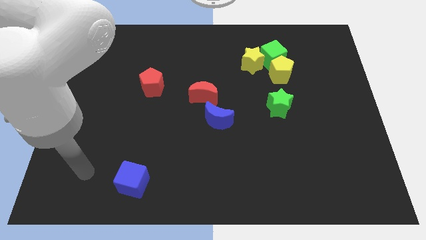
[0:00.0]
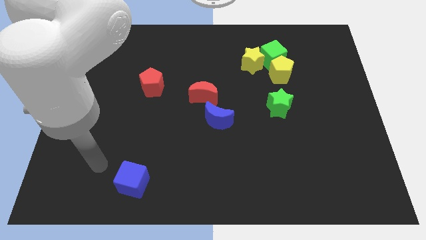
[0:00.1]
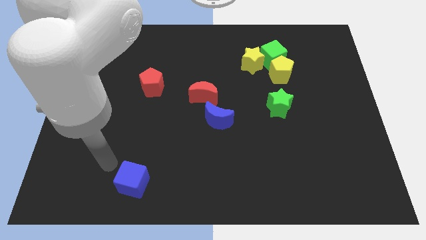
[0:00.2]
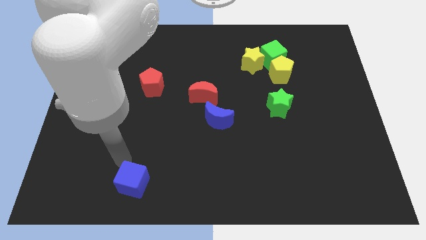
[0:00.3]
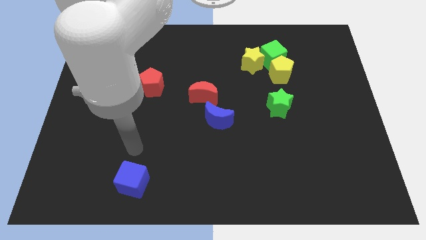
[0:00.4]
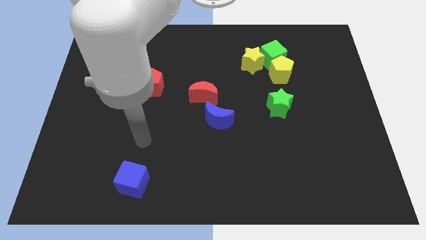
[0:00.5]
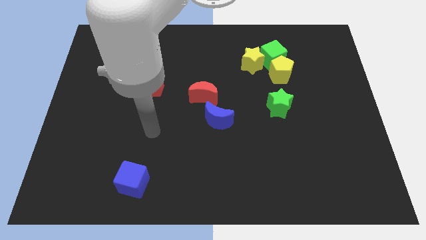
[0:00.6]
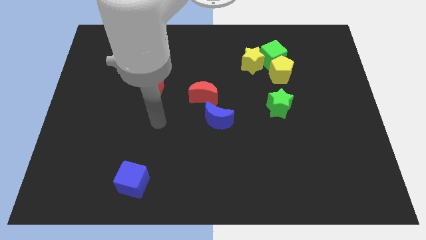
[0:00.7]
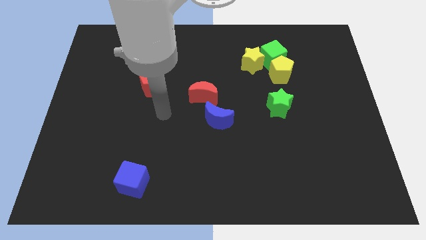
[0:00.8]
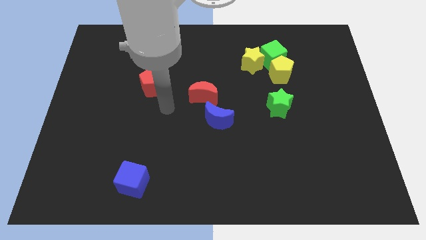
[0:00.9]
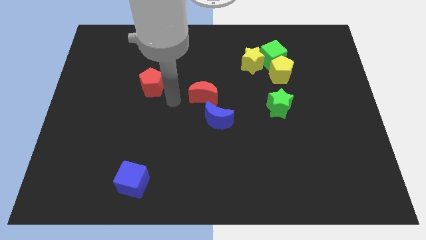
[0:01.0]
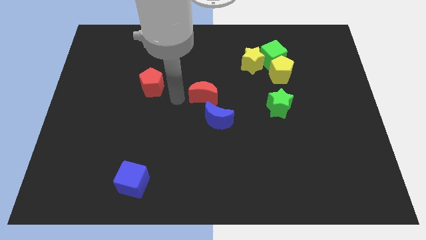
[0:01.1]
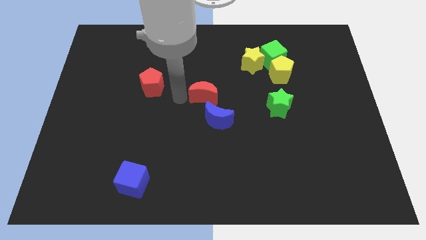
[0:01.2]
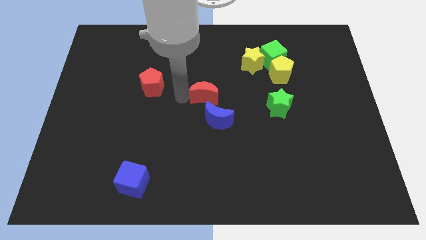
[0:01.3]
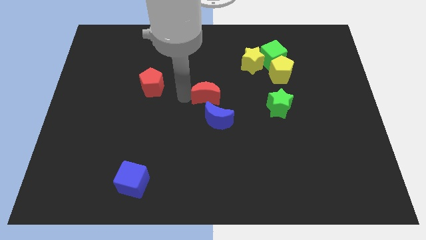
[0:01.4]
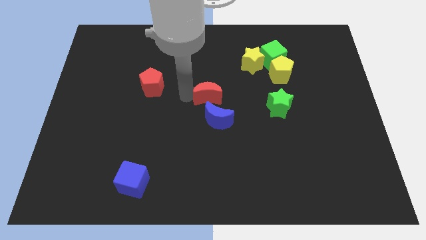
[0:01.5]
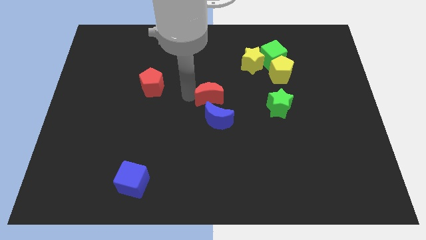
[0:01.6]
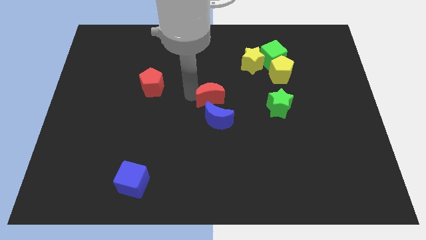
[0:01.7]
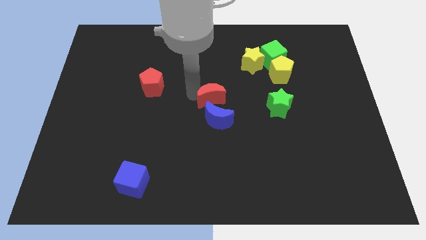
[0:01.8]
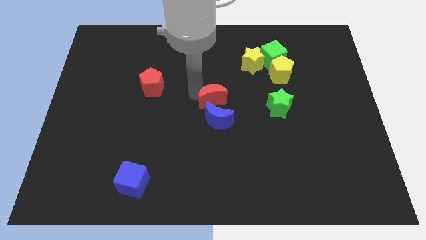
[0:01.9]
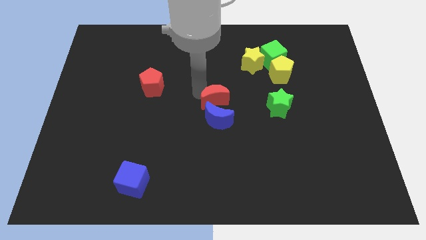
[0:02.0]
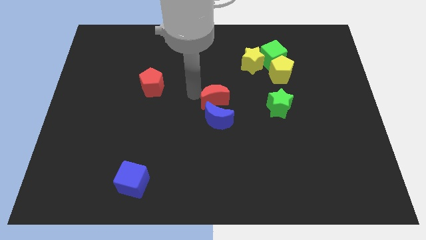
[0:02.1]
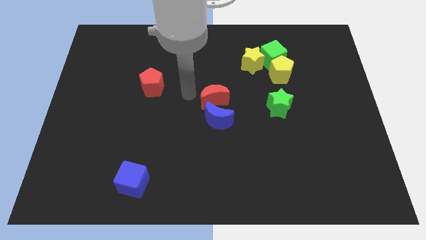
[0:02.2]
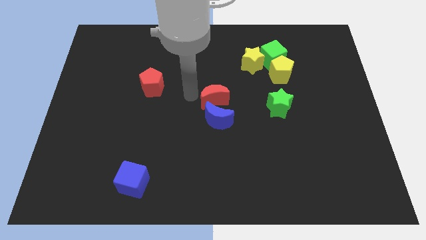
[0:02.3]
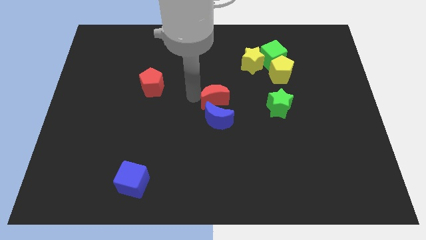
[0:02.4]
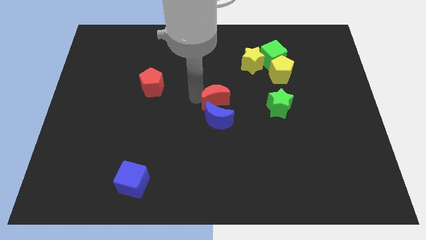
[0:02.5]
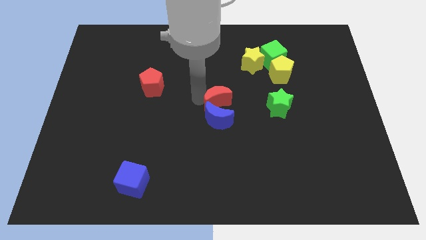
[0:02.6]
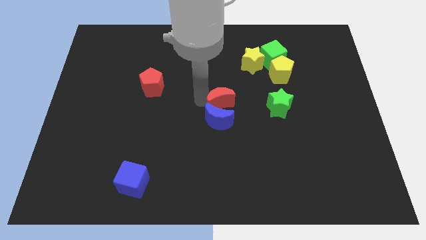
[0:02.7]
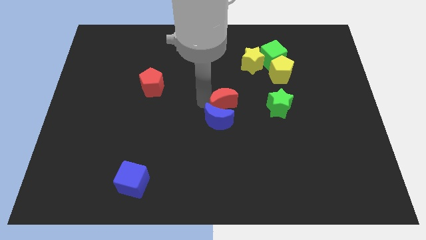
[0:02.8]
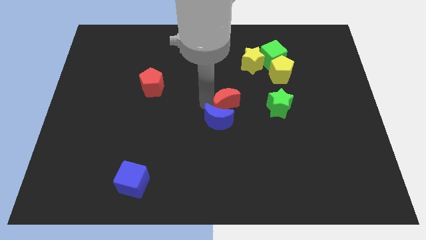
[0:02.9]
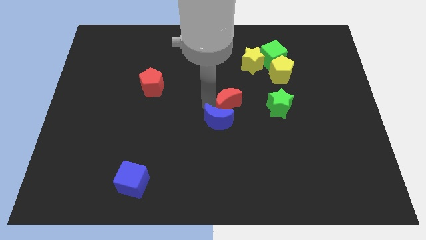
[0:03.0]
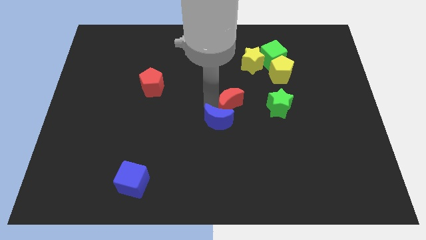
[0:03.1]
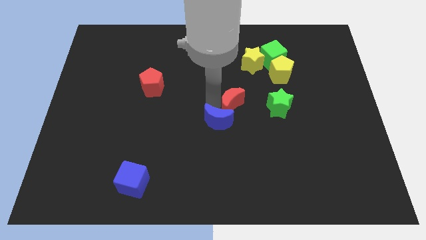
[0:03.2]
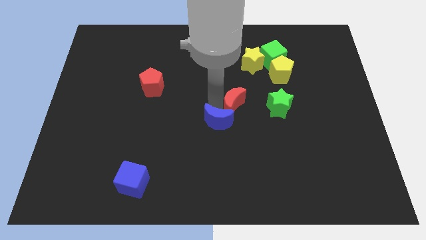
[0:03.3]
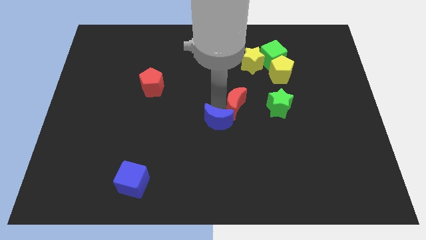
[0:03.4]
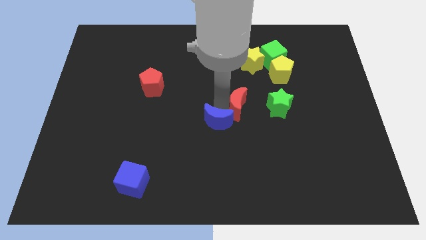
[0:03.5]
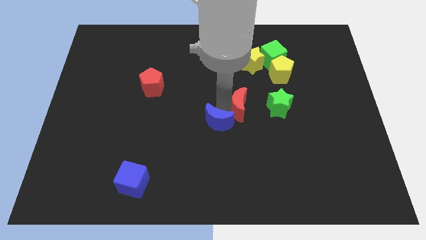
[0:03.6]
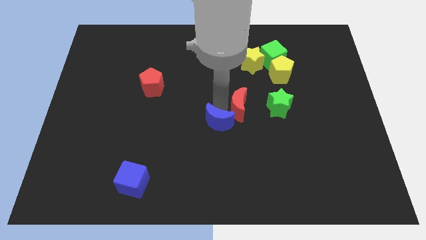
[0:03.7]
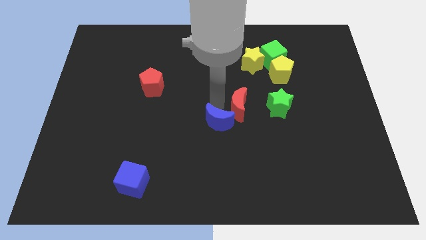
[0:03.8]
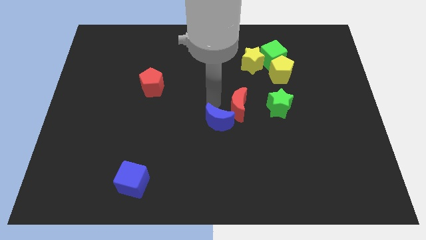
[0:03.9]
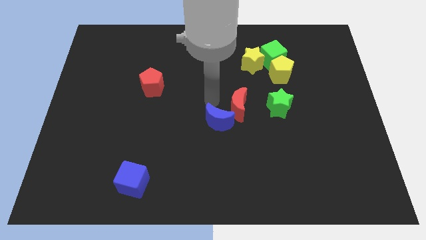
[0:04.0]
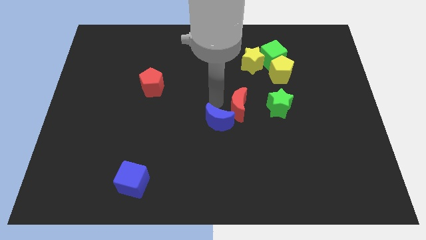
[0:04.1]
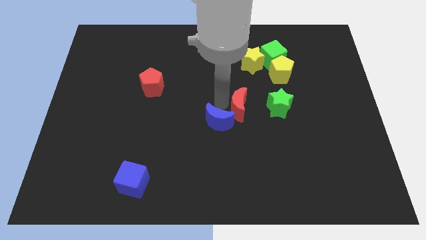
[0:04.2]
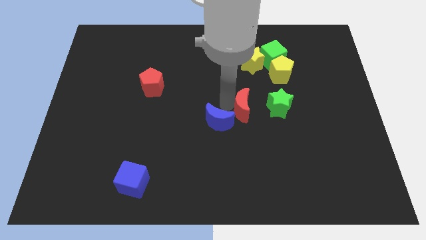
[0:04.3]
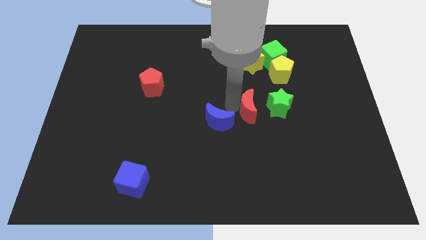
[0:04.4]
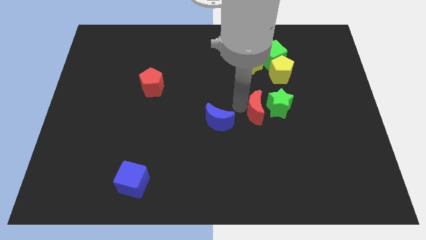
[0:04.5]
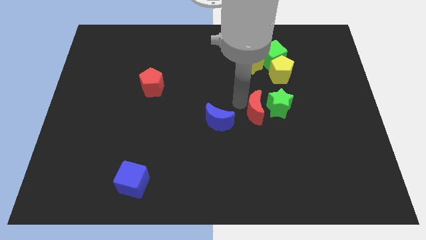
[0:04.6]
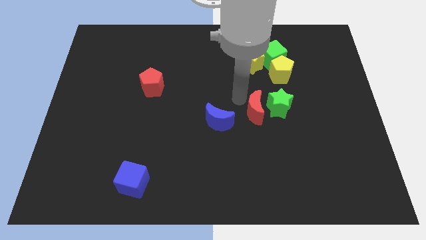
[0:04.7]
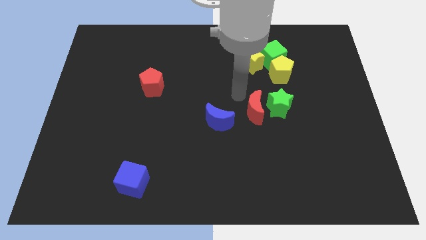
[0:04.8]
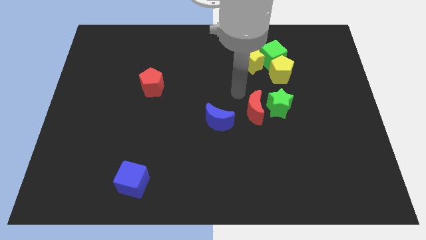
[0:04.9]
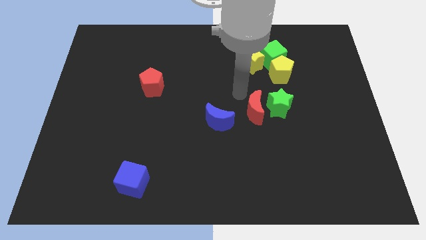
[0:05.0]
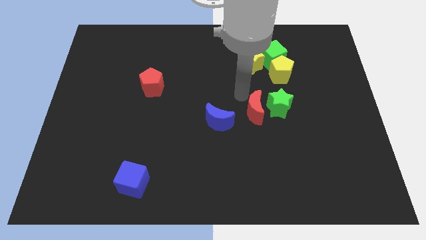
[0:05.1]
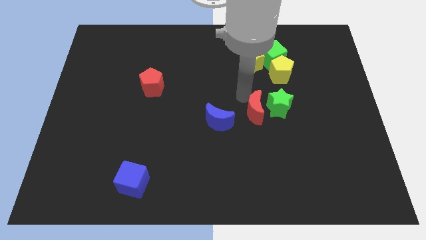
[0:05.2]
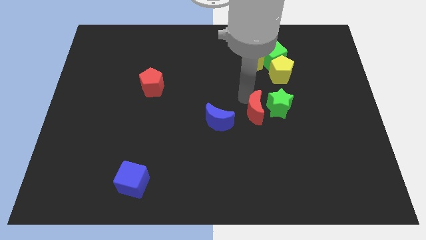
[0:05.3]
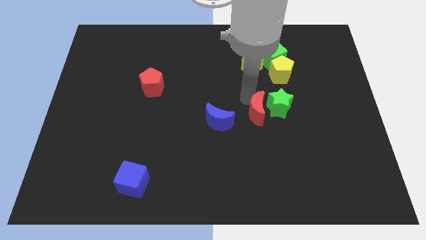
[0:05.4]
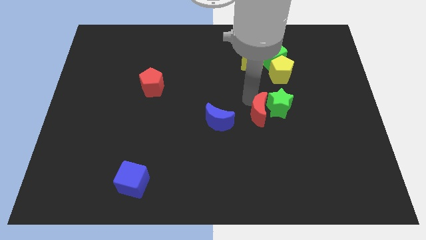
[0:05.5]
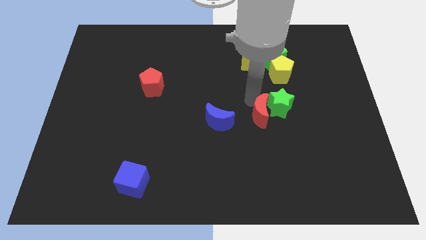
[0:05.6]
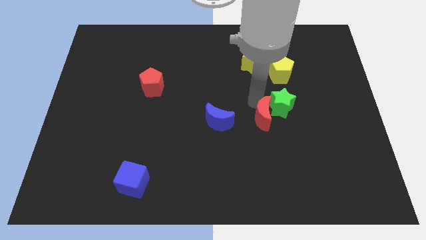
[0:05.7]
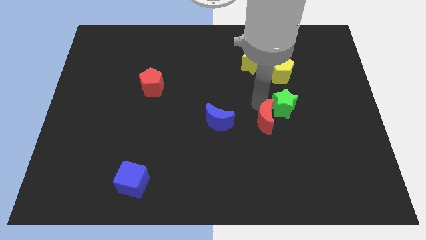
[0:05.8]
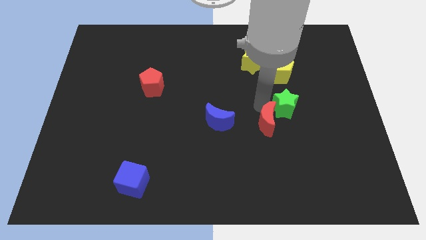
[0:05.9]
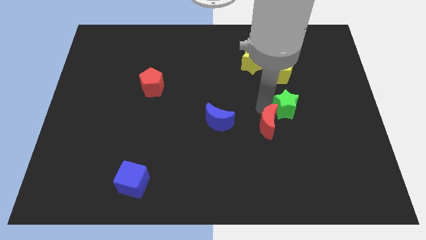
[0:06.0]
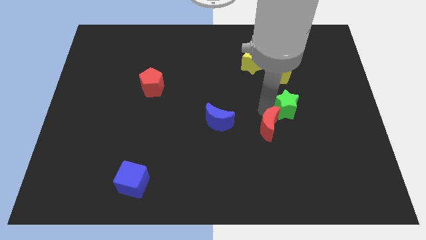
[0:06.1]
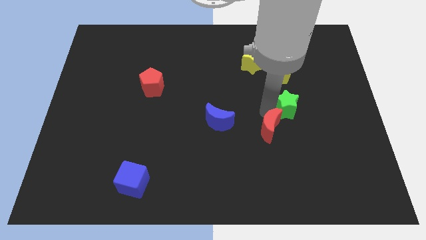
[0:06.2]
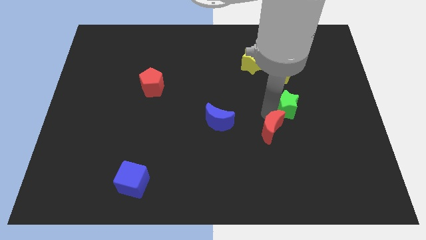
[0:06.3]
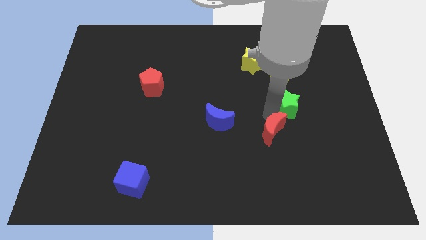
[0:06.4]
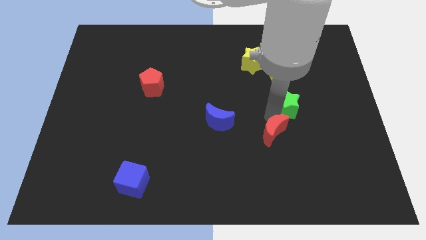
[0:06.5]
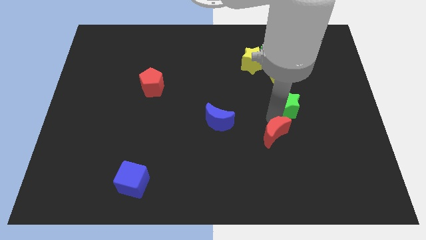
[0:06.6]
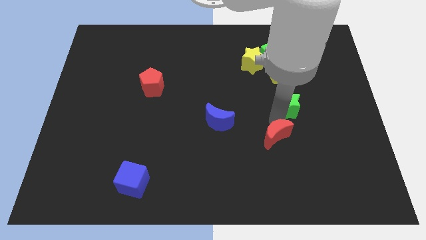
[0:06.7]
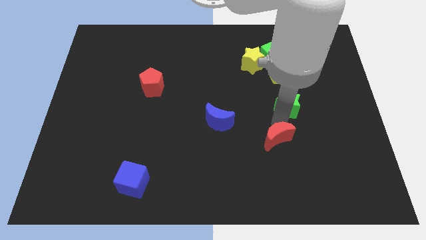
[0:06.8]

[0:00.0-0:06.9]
move the red moon diagonally down and right

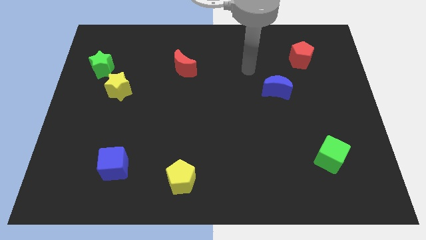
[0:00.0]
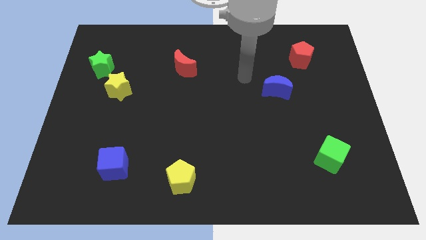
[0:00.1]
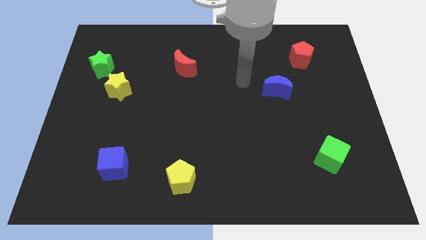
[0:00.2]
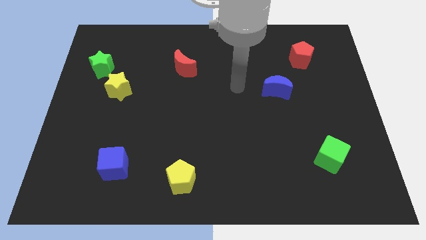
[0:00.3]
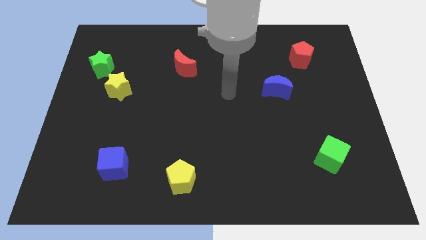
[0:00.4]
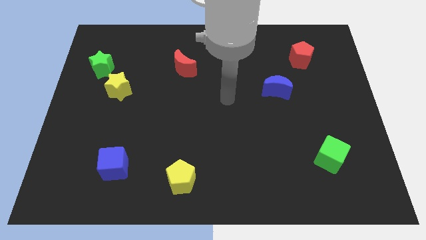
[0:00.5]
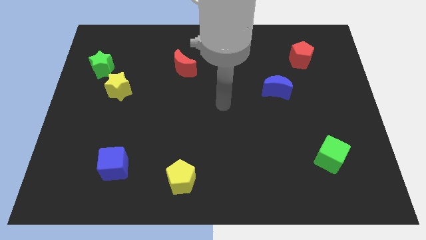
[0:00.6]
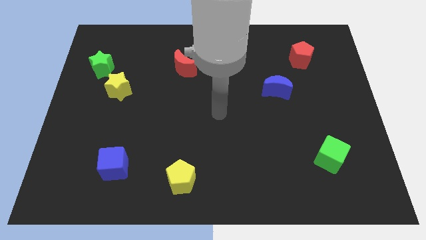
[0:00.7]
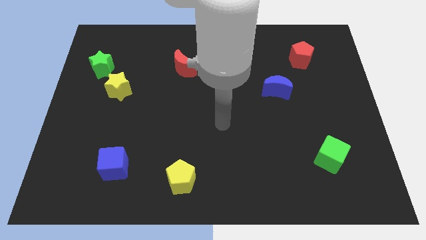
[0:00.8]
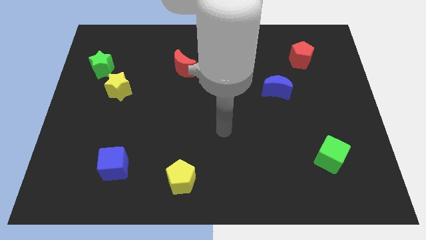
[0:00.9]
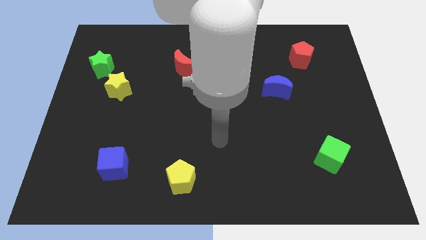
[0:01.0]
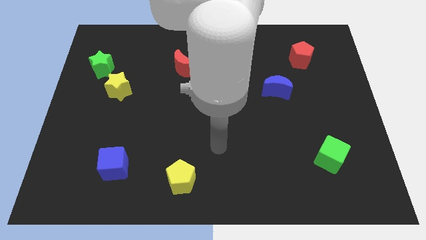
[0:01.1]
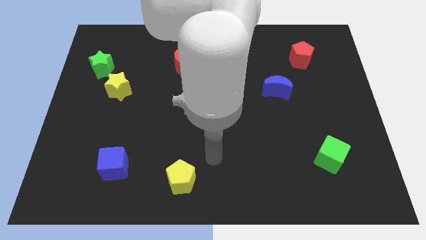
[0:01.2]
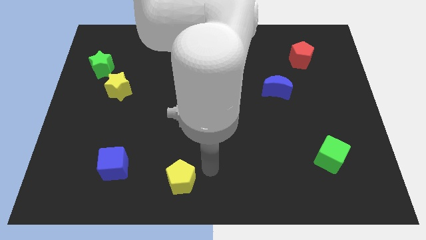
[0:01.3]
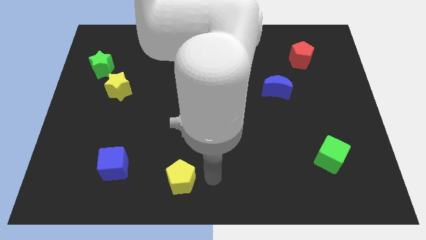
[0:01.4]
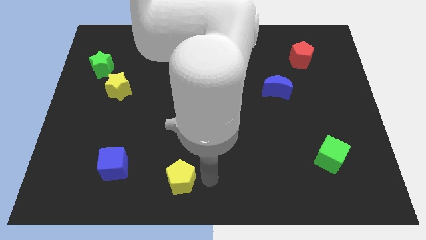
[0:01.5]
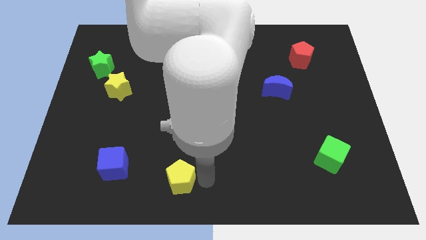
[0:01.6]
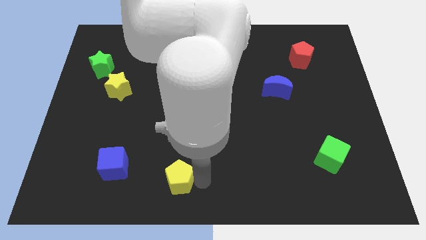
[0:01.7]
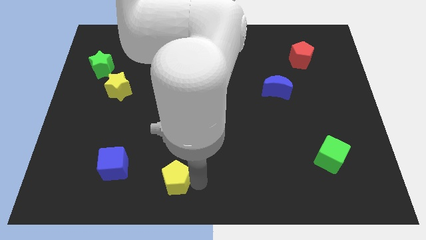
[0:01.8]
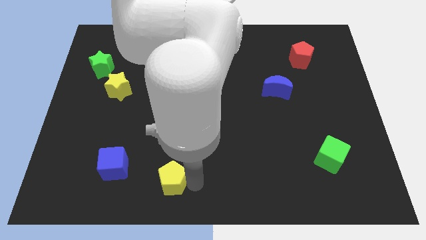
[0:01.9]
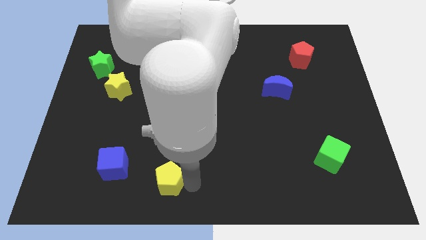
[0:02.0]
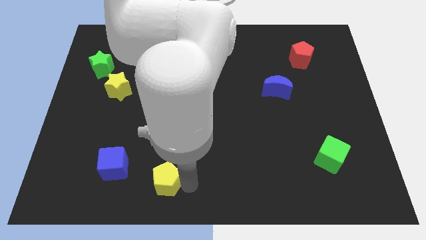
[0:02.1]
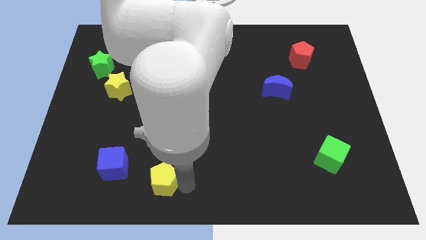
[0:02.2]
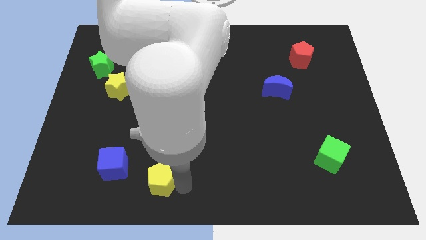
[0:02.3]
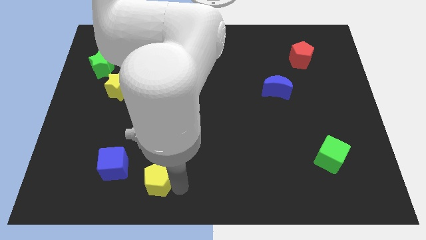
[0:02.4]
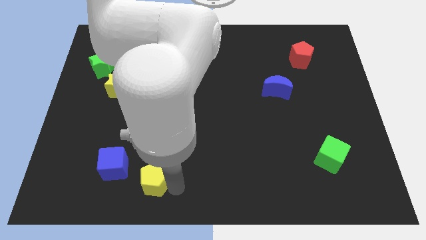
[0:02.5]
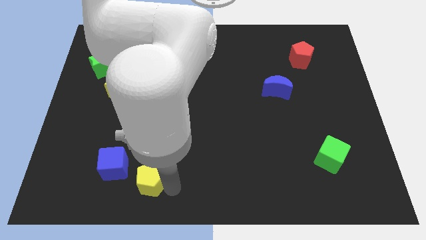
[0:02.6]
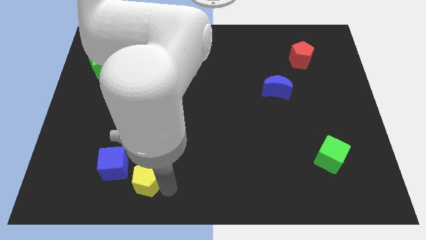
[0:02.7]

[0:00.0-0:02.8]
slightly push the yellow pentagon to the left
